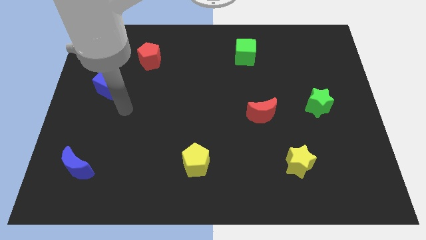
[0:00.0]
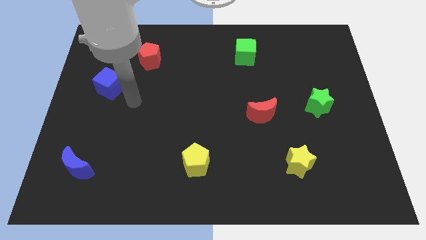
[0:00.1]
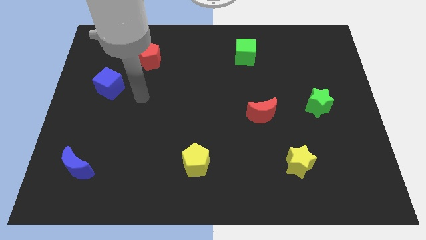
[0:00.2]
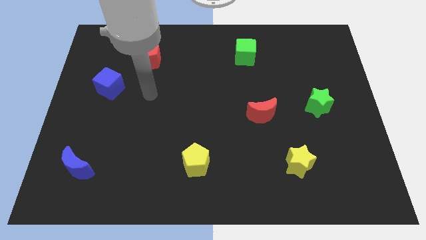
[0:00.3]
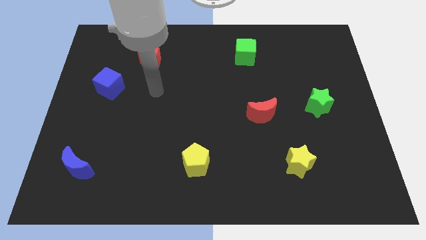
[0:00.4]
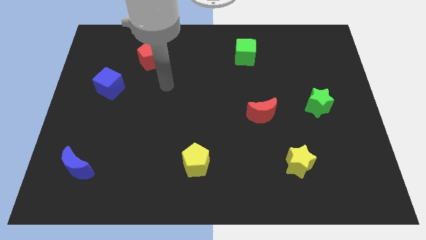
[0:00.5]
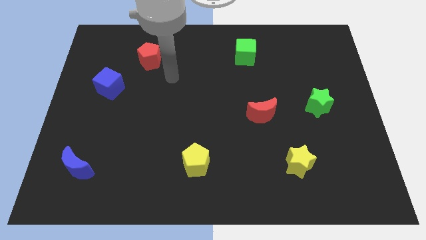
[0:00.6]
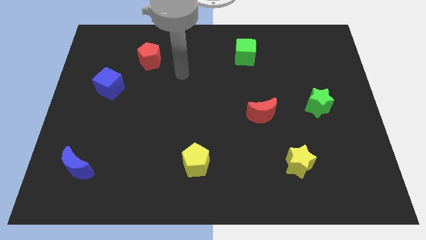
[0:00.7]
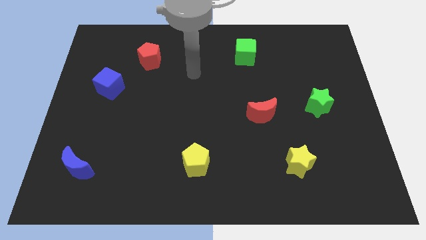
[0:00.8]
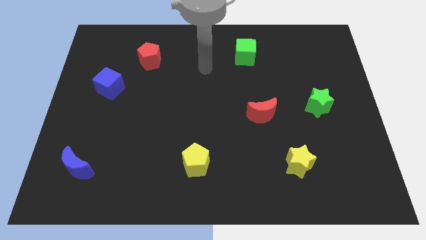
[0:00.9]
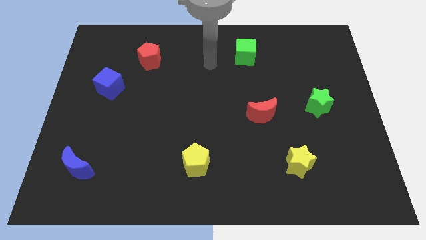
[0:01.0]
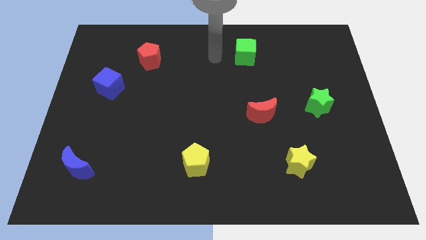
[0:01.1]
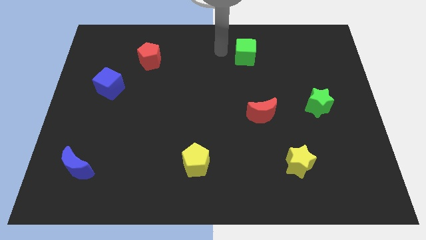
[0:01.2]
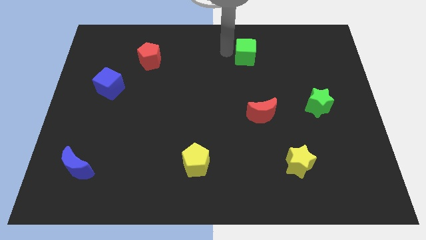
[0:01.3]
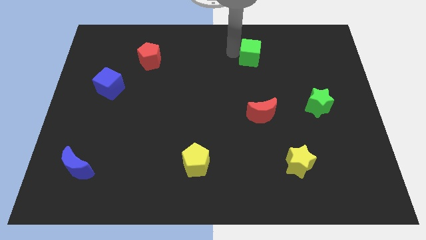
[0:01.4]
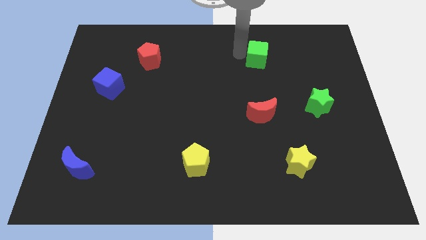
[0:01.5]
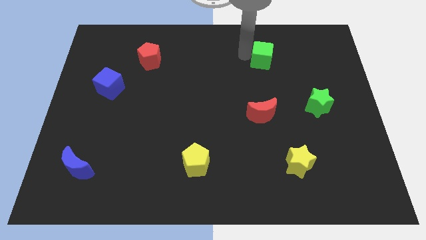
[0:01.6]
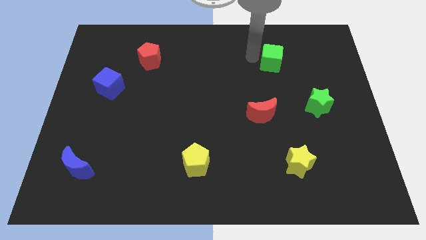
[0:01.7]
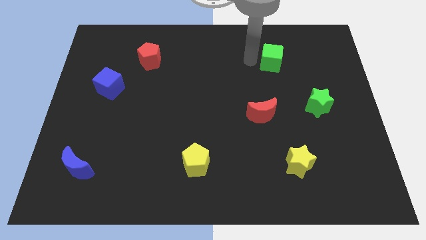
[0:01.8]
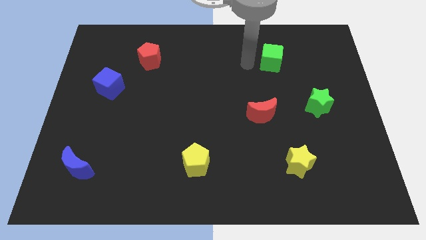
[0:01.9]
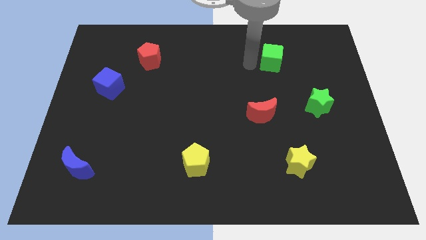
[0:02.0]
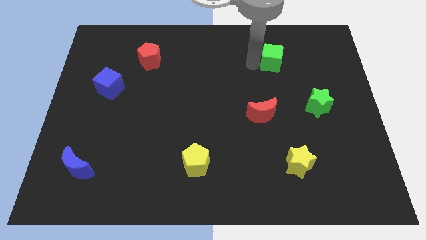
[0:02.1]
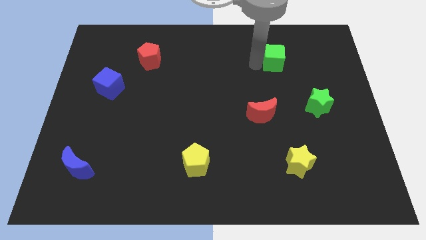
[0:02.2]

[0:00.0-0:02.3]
slide the green cube a bit to the right

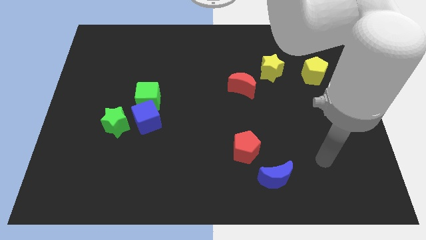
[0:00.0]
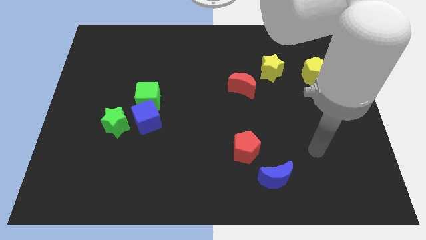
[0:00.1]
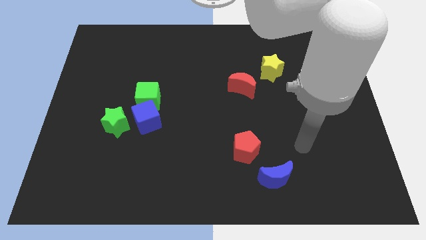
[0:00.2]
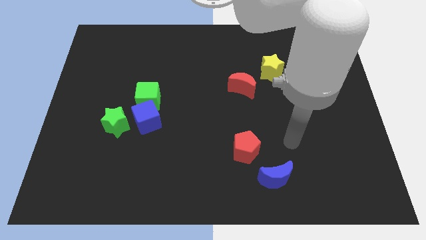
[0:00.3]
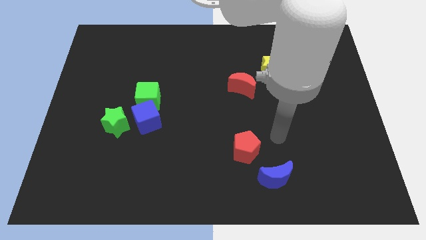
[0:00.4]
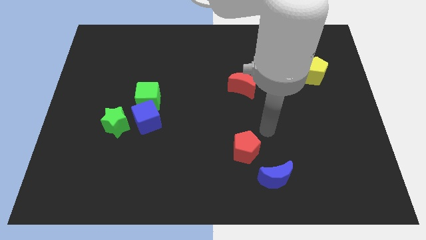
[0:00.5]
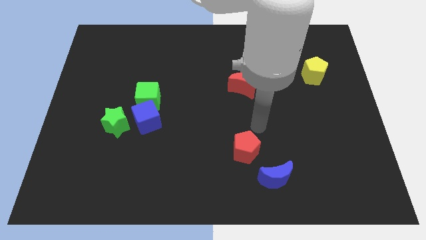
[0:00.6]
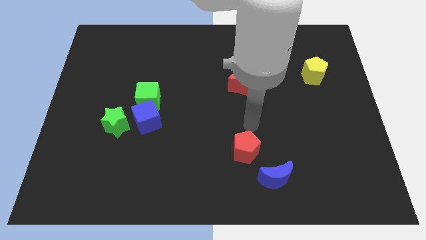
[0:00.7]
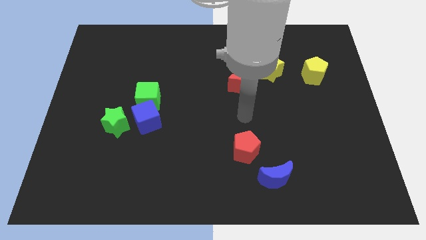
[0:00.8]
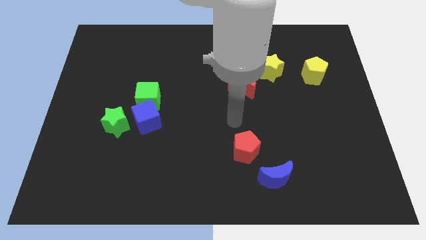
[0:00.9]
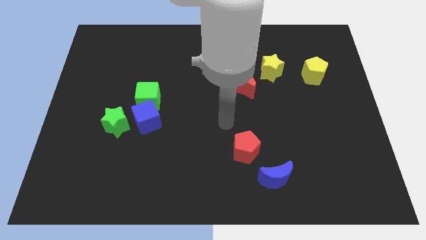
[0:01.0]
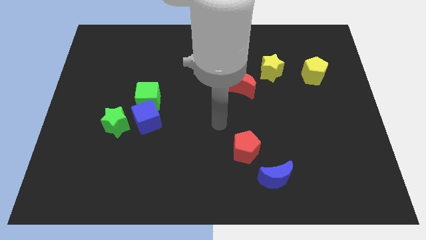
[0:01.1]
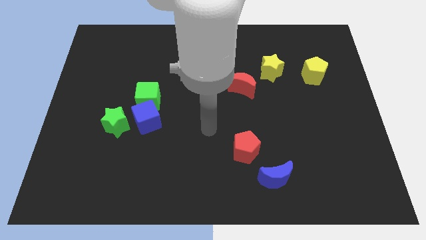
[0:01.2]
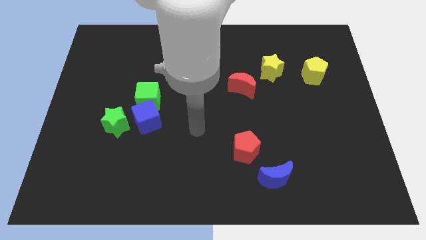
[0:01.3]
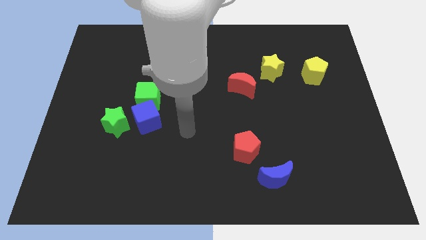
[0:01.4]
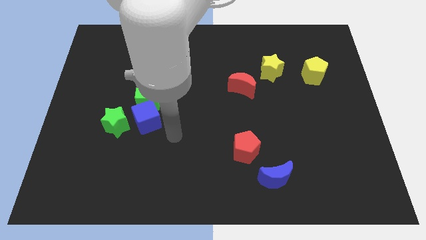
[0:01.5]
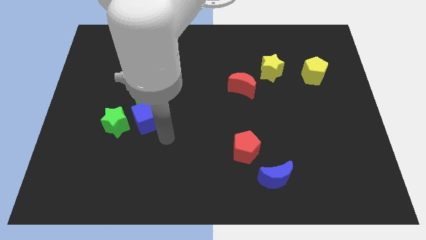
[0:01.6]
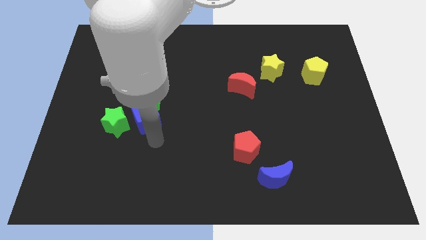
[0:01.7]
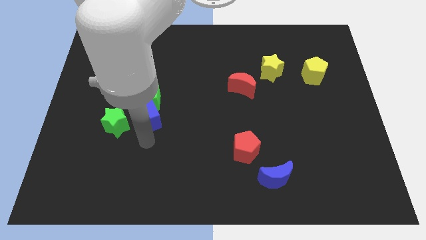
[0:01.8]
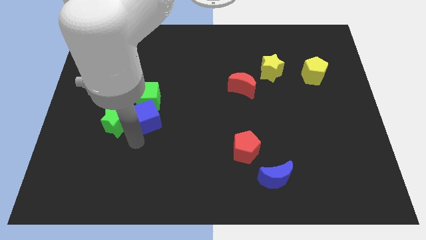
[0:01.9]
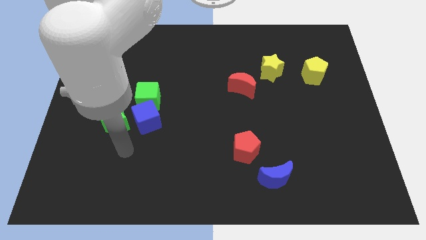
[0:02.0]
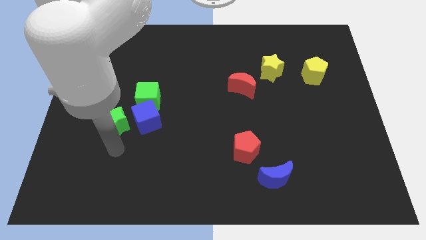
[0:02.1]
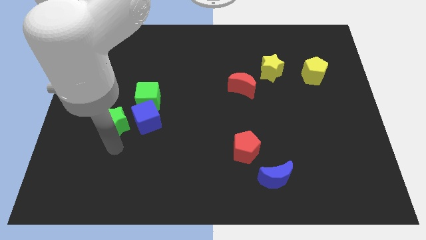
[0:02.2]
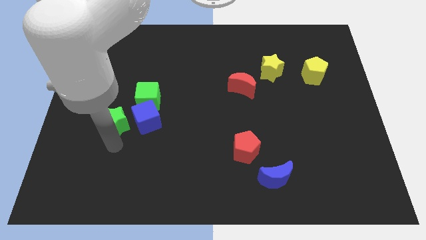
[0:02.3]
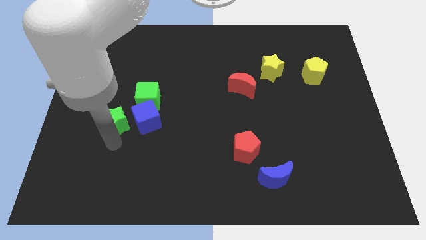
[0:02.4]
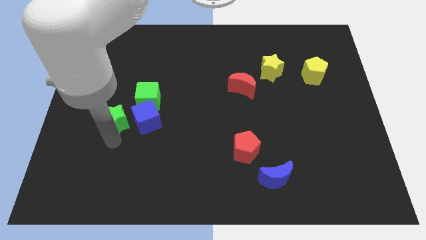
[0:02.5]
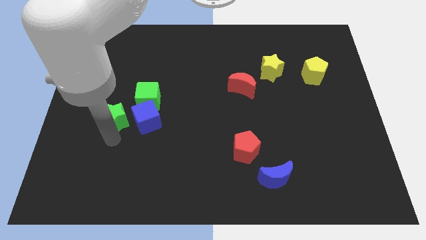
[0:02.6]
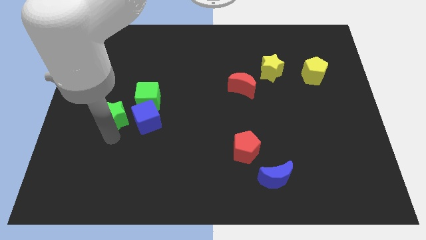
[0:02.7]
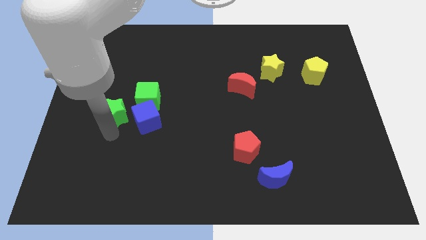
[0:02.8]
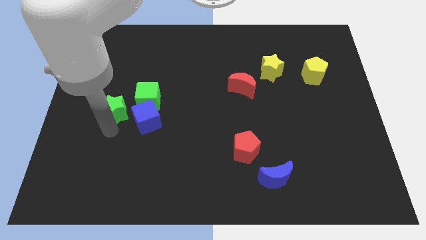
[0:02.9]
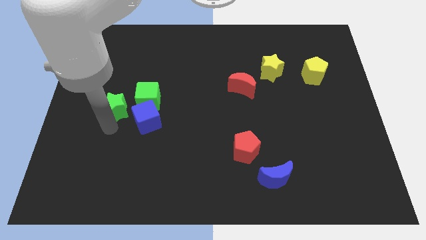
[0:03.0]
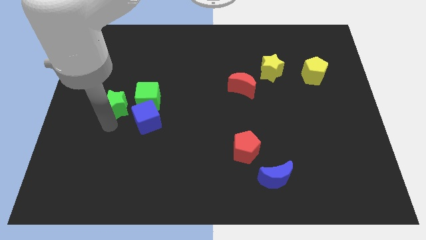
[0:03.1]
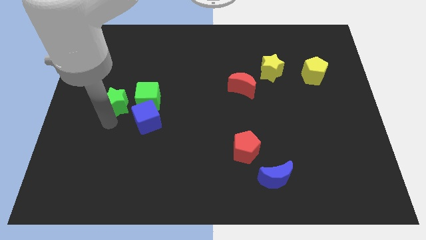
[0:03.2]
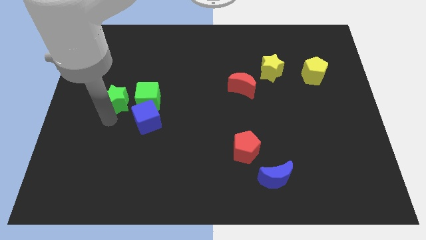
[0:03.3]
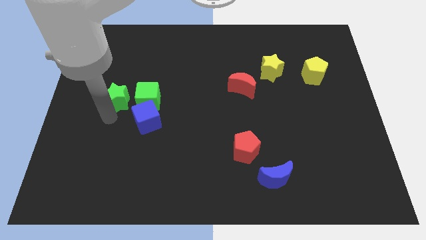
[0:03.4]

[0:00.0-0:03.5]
push the green star somewhat upwards

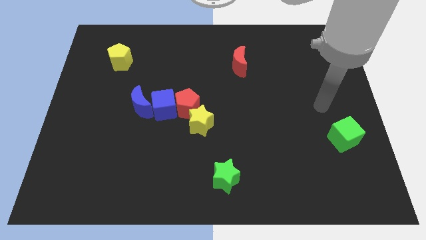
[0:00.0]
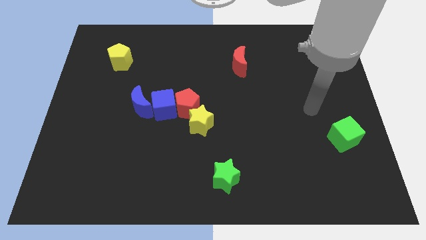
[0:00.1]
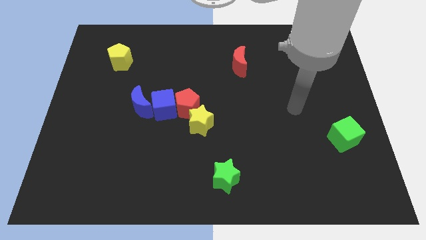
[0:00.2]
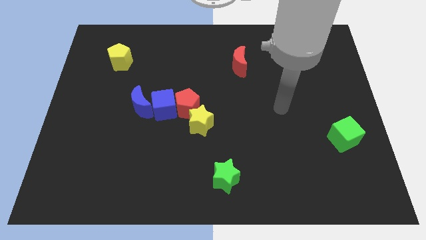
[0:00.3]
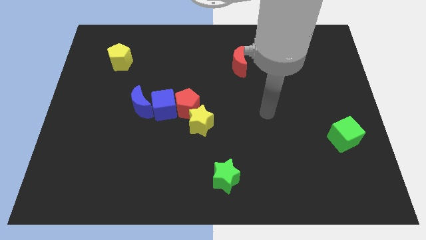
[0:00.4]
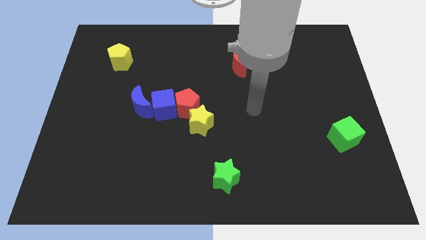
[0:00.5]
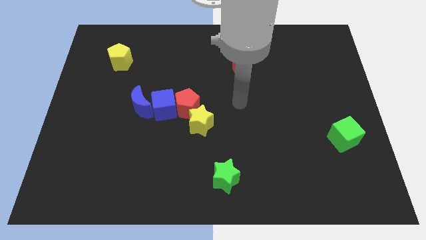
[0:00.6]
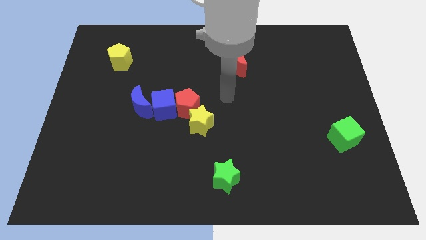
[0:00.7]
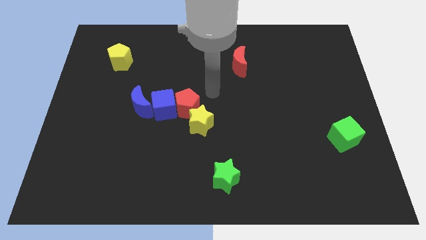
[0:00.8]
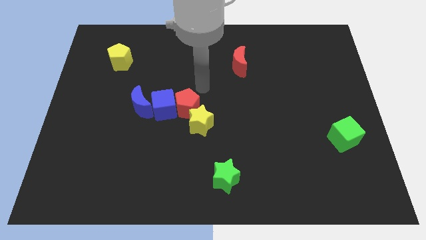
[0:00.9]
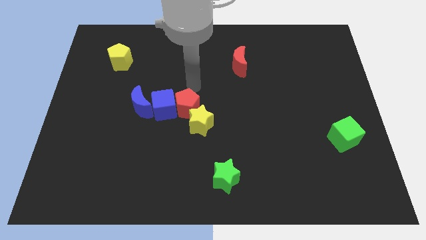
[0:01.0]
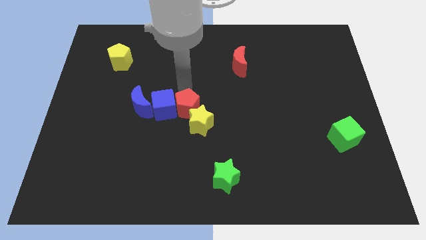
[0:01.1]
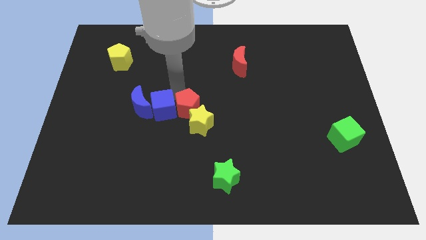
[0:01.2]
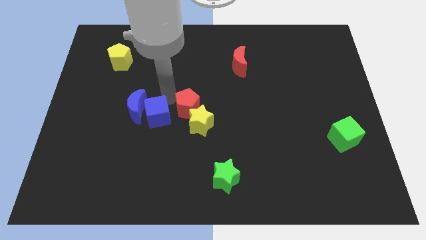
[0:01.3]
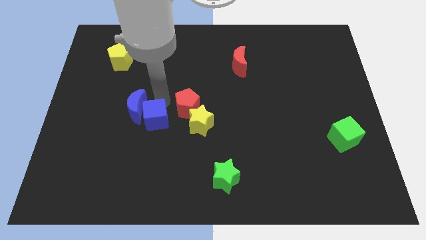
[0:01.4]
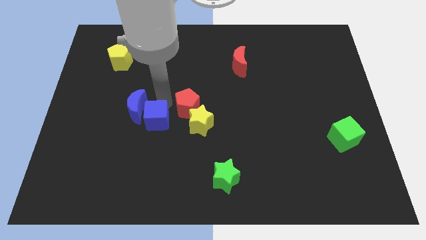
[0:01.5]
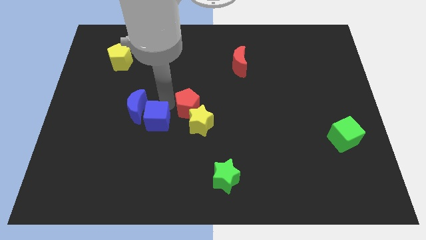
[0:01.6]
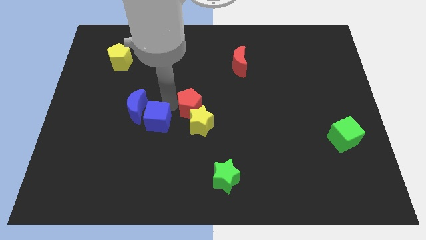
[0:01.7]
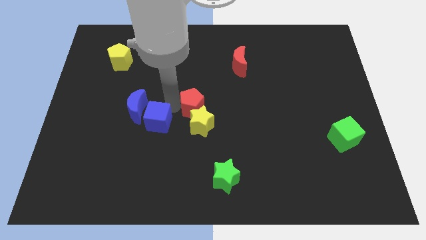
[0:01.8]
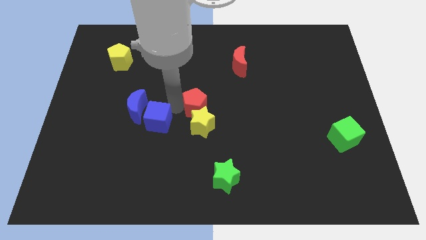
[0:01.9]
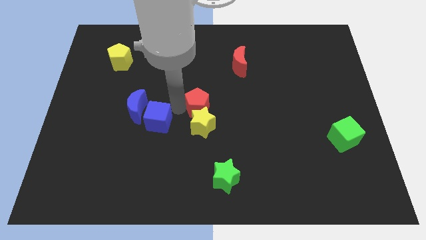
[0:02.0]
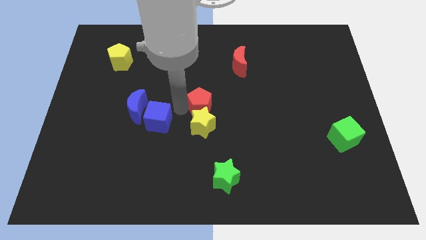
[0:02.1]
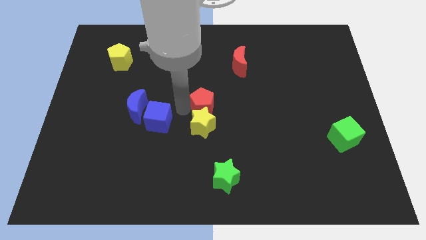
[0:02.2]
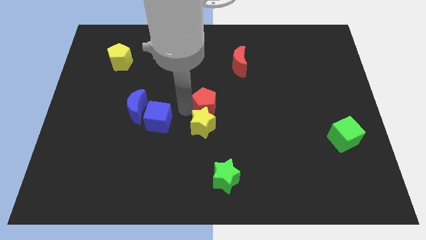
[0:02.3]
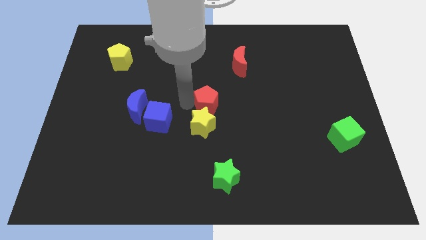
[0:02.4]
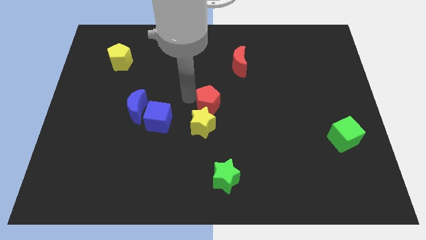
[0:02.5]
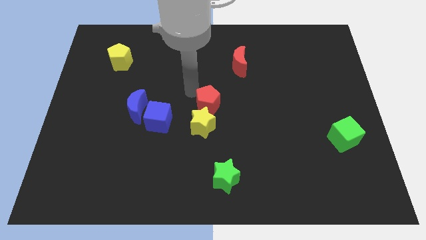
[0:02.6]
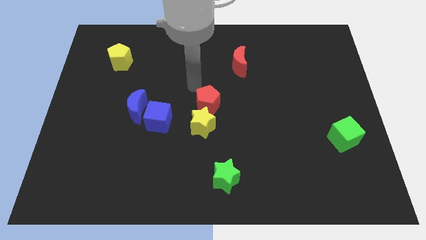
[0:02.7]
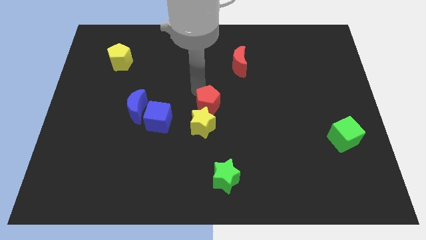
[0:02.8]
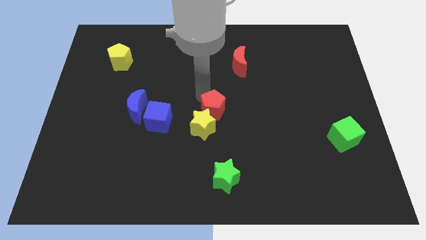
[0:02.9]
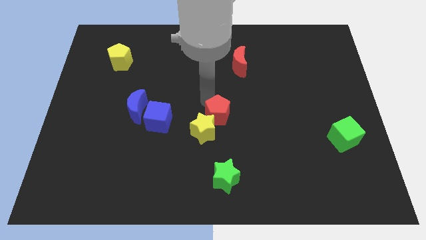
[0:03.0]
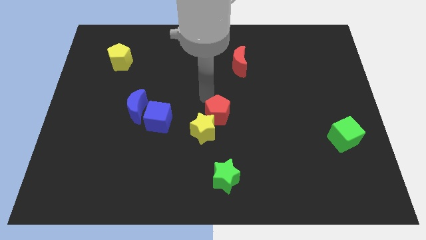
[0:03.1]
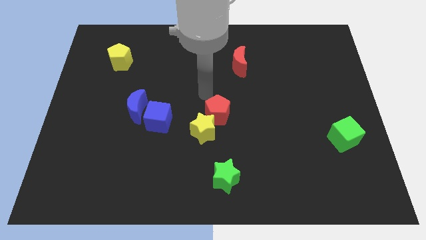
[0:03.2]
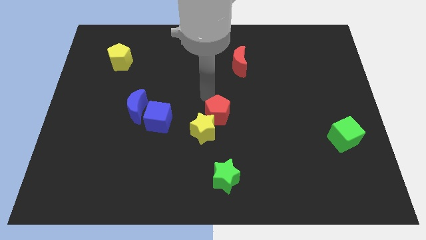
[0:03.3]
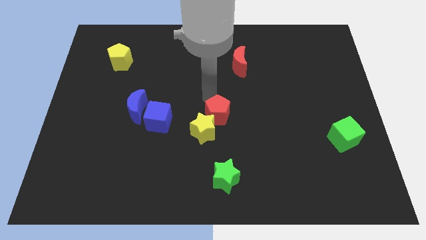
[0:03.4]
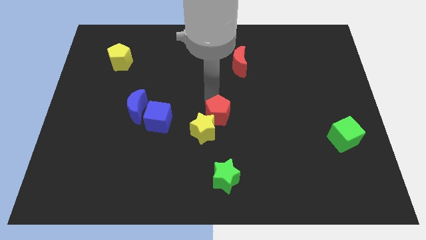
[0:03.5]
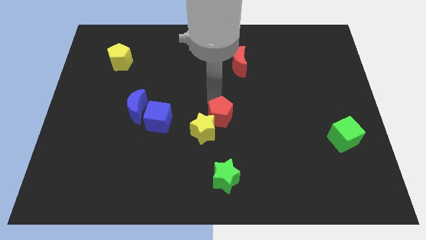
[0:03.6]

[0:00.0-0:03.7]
push the red pentagon downwards and then to the right somewhat
